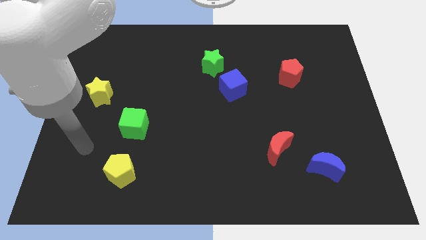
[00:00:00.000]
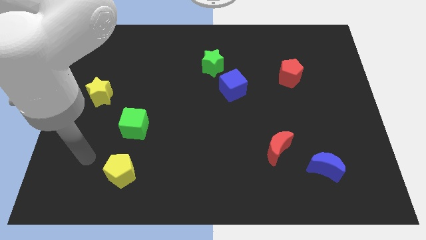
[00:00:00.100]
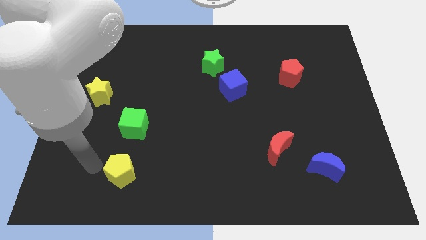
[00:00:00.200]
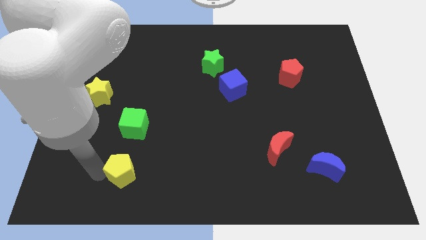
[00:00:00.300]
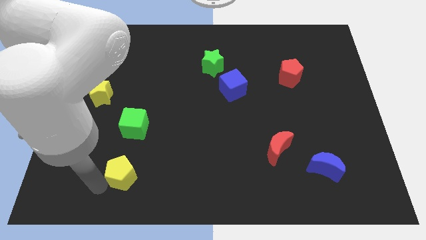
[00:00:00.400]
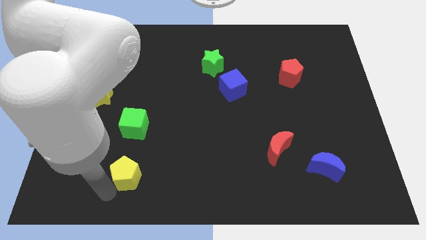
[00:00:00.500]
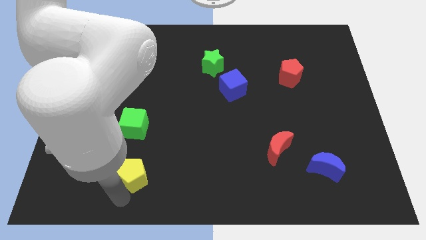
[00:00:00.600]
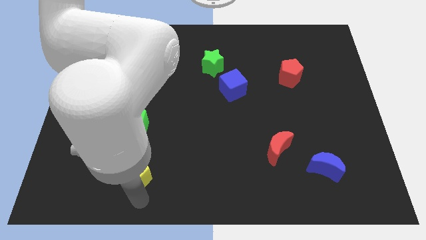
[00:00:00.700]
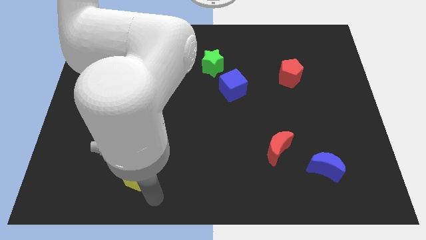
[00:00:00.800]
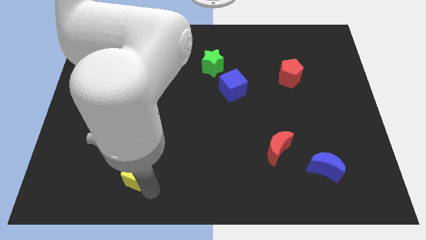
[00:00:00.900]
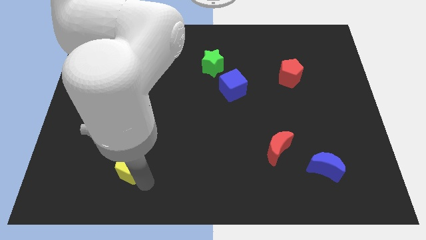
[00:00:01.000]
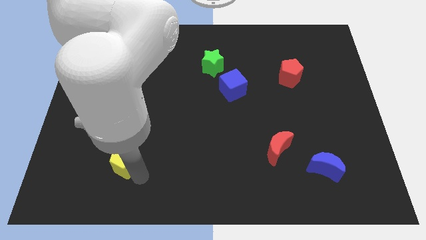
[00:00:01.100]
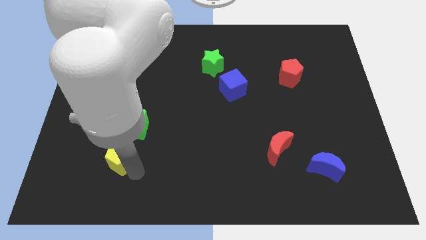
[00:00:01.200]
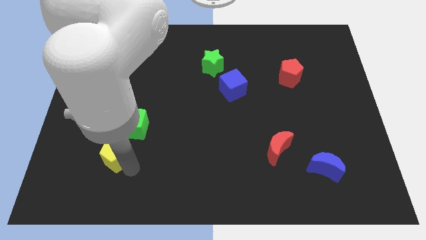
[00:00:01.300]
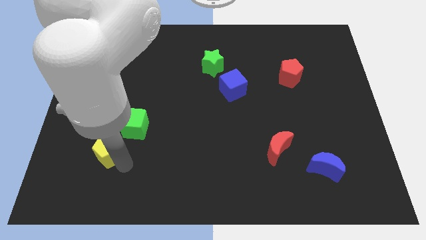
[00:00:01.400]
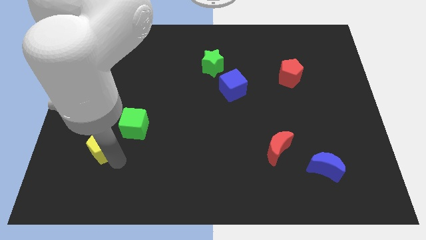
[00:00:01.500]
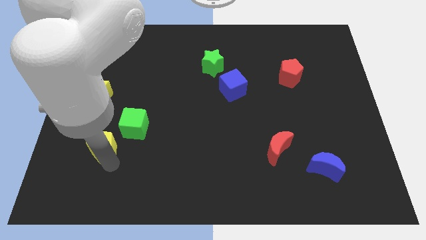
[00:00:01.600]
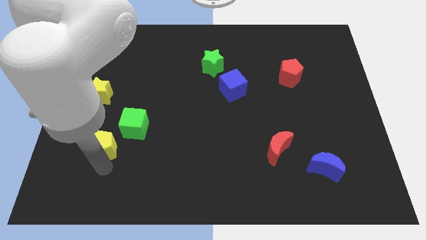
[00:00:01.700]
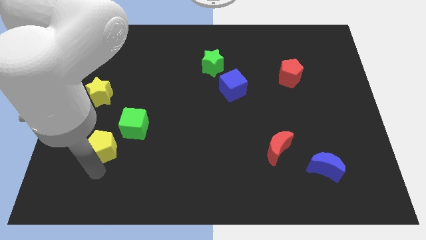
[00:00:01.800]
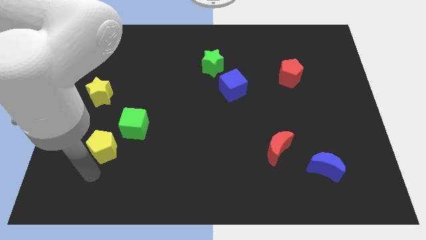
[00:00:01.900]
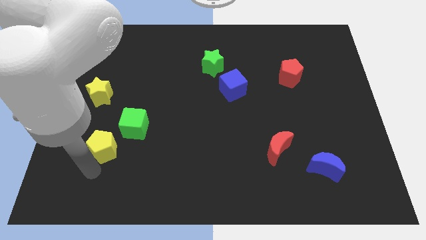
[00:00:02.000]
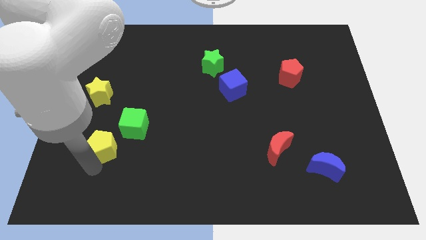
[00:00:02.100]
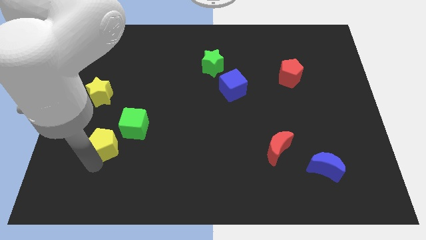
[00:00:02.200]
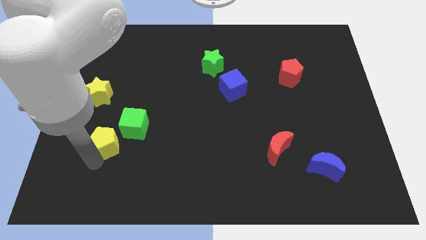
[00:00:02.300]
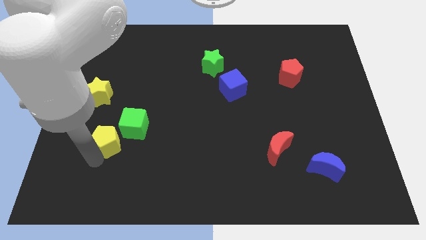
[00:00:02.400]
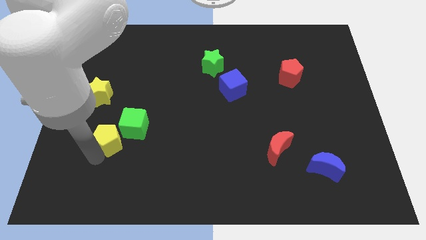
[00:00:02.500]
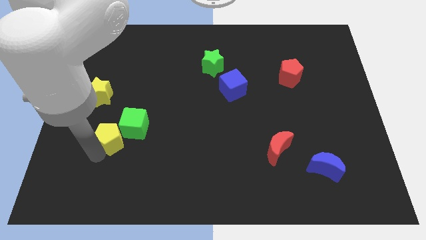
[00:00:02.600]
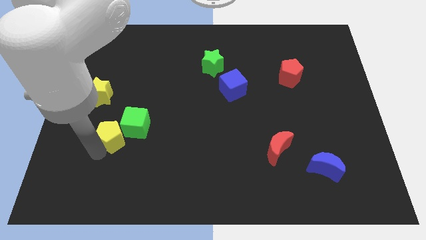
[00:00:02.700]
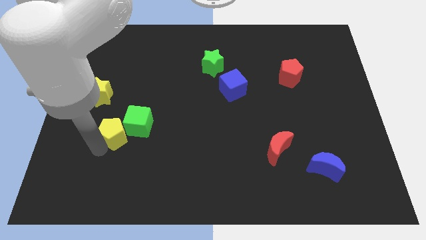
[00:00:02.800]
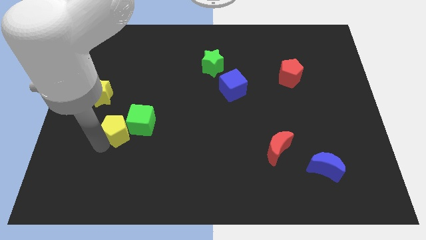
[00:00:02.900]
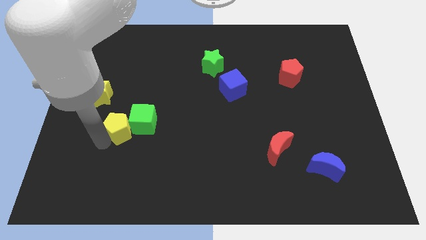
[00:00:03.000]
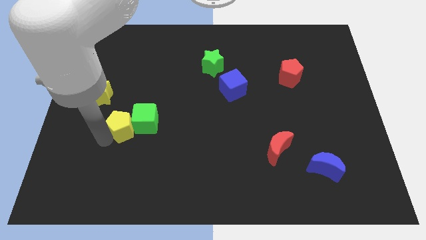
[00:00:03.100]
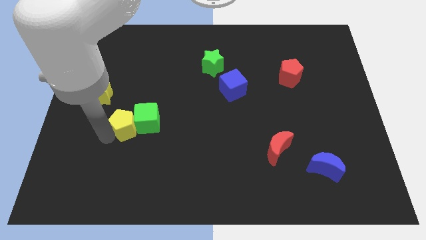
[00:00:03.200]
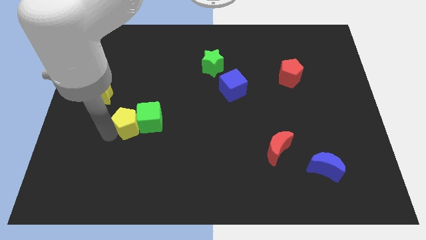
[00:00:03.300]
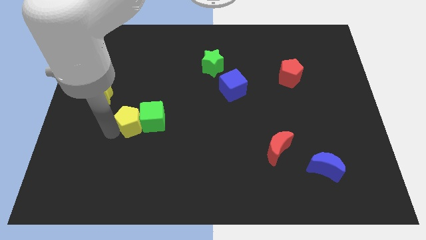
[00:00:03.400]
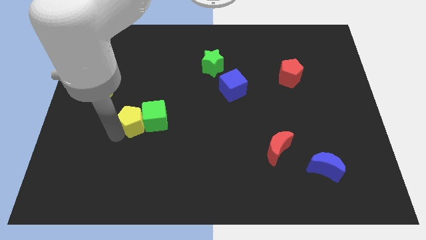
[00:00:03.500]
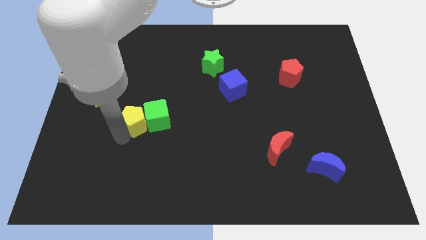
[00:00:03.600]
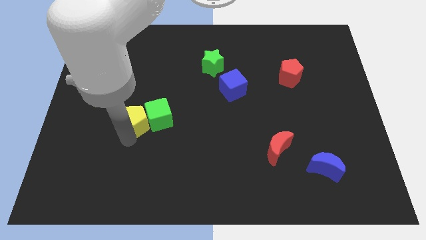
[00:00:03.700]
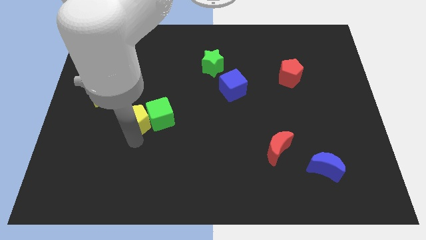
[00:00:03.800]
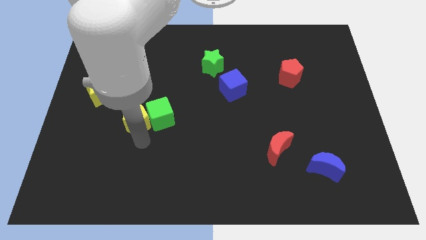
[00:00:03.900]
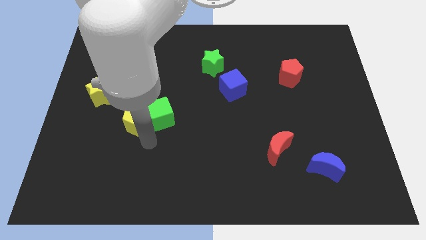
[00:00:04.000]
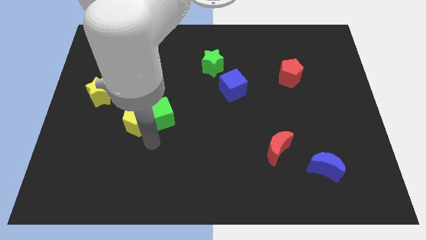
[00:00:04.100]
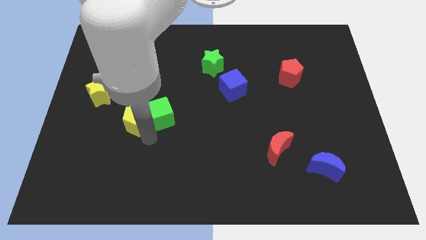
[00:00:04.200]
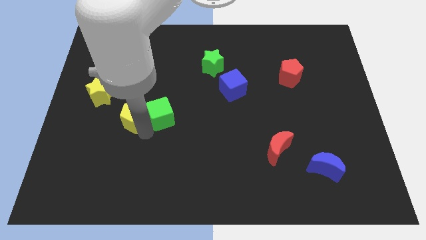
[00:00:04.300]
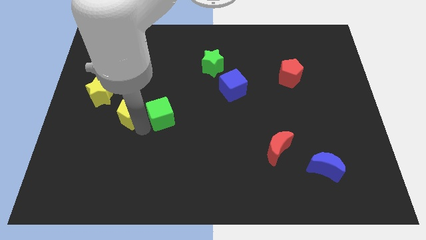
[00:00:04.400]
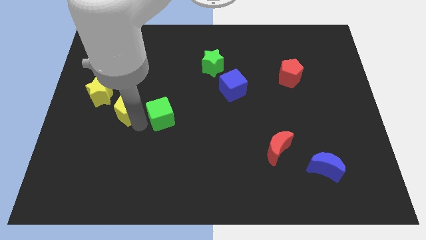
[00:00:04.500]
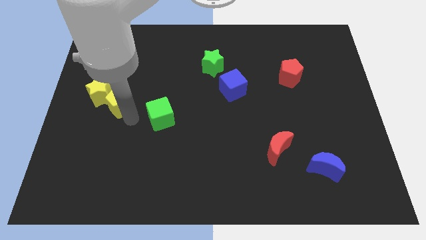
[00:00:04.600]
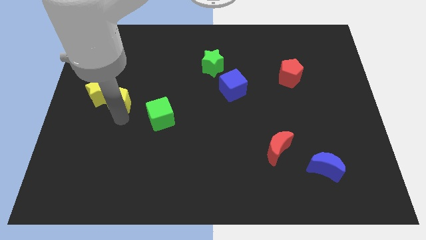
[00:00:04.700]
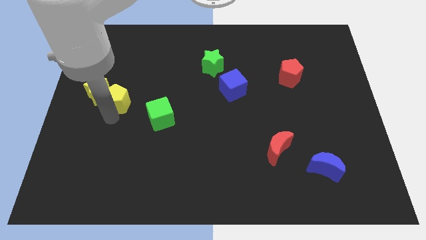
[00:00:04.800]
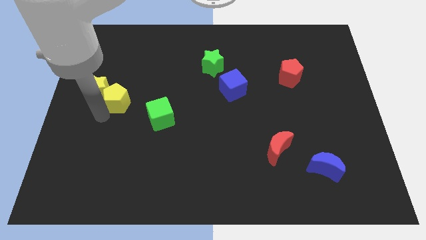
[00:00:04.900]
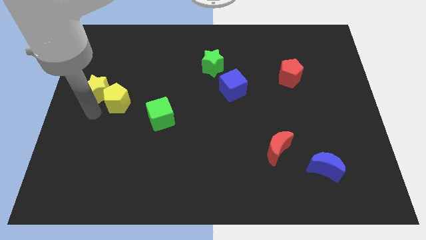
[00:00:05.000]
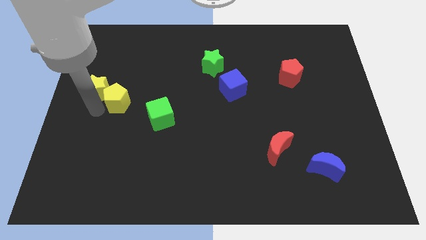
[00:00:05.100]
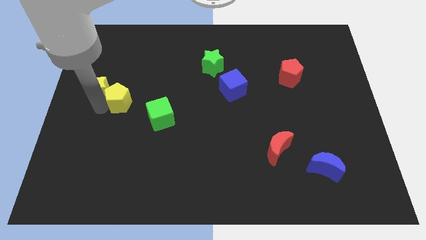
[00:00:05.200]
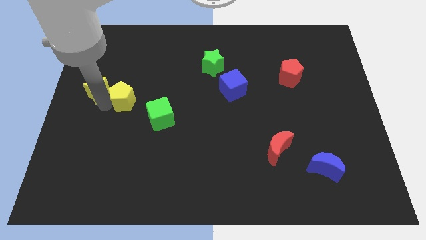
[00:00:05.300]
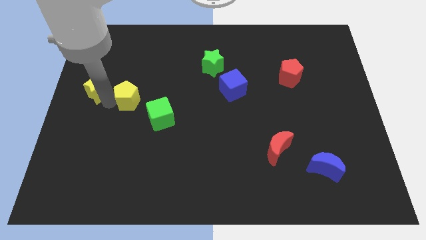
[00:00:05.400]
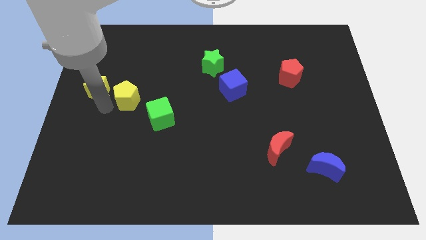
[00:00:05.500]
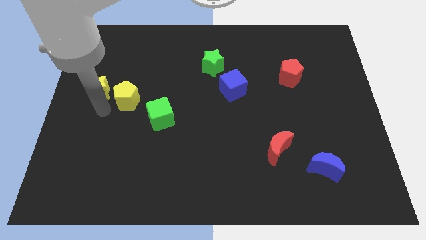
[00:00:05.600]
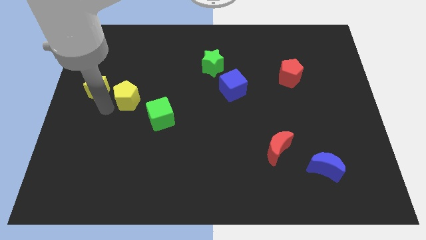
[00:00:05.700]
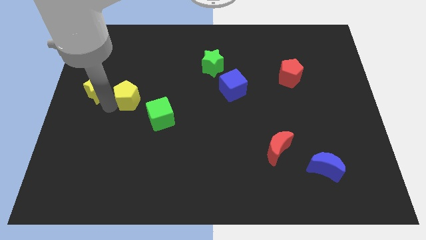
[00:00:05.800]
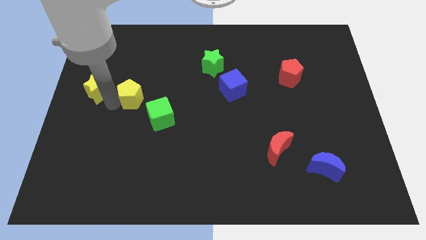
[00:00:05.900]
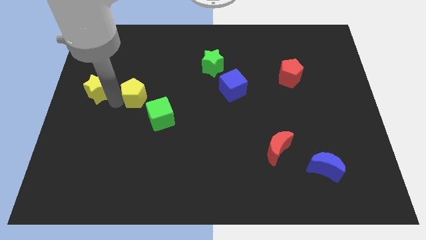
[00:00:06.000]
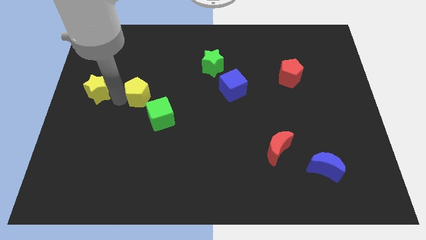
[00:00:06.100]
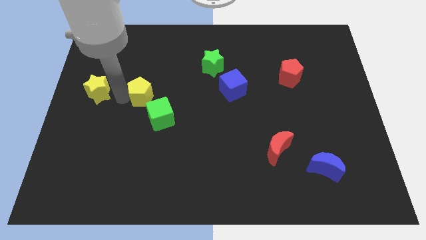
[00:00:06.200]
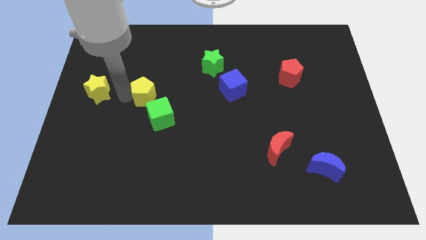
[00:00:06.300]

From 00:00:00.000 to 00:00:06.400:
push the yellow pentagon above the green cube

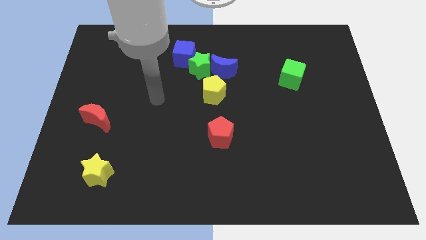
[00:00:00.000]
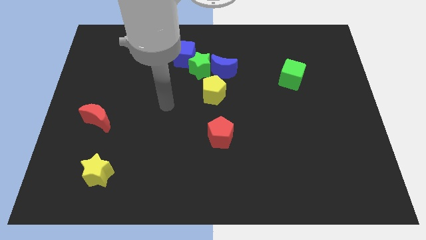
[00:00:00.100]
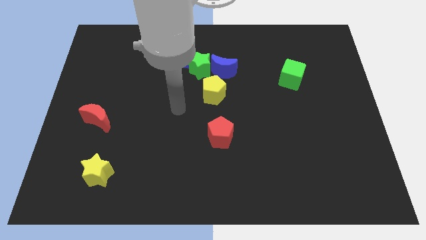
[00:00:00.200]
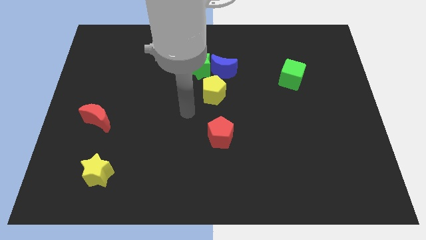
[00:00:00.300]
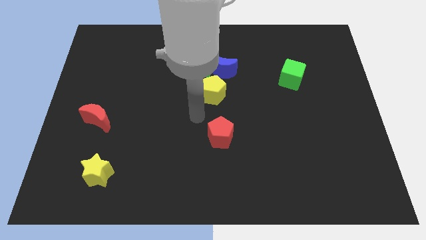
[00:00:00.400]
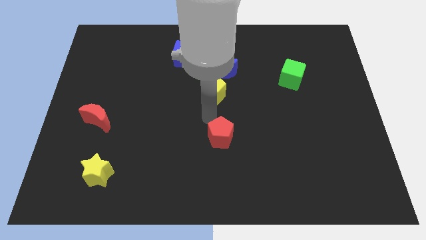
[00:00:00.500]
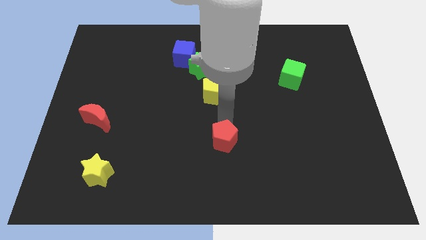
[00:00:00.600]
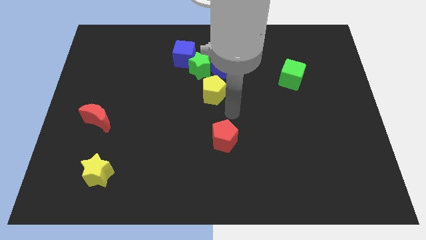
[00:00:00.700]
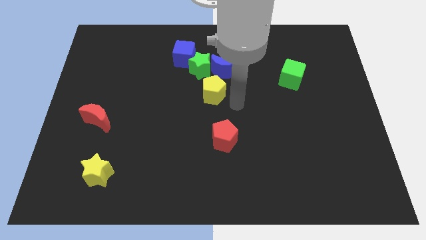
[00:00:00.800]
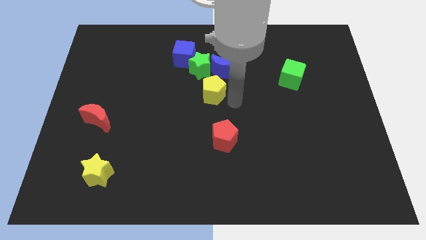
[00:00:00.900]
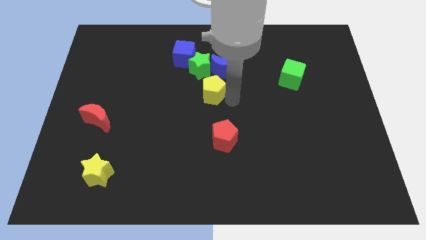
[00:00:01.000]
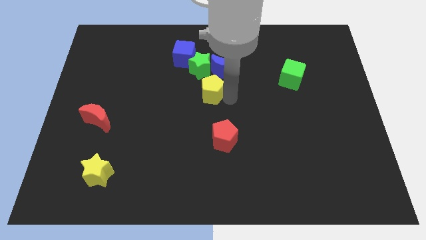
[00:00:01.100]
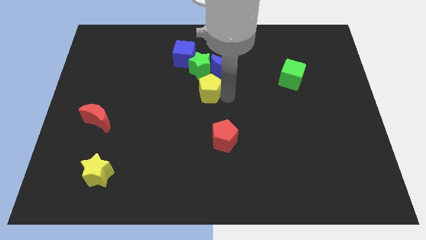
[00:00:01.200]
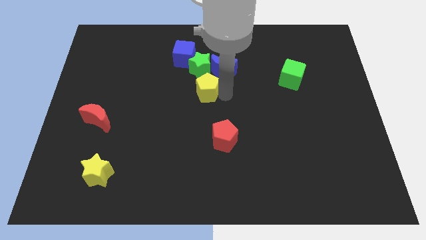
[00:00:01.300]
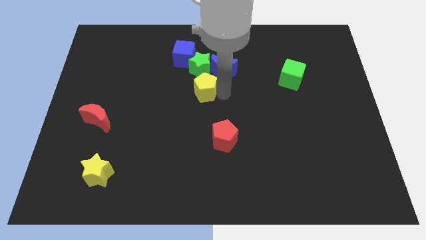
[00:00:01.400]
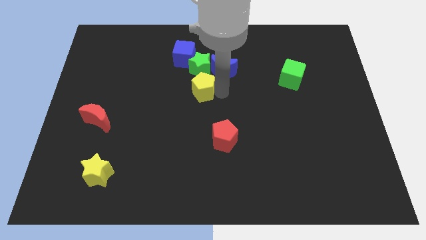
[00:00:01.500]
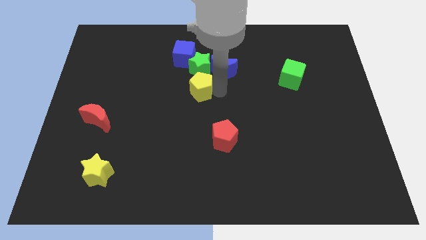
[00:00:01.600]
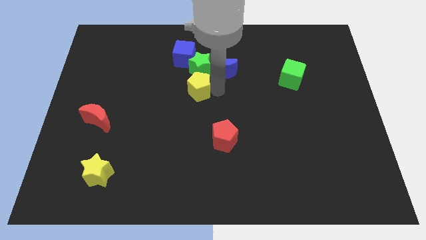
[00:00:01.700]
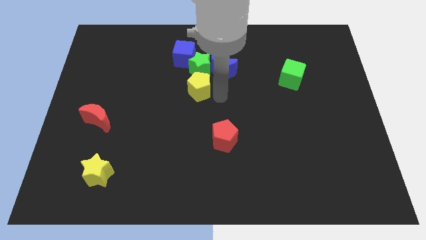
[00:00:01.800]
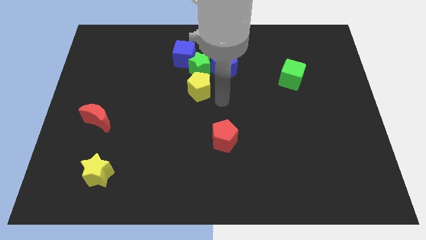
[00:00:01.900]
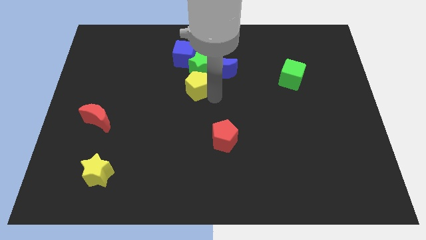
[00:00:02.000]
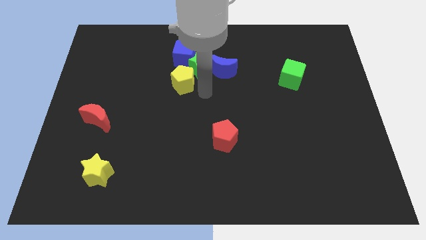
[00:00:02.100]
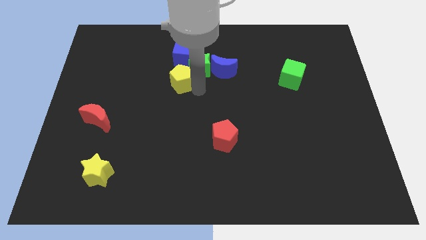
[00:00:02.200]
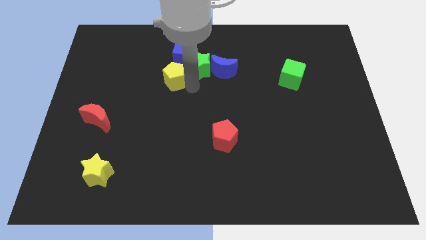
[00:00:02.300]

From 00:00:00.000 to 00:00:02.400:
put the yellow pentagon diagonally down and to the left of the blue cube
